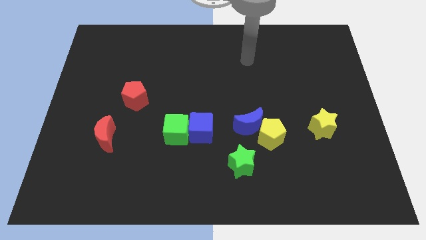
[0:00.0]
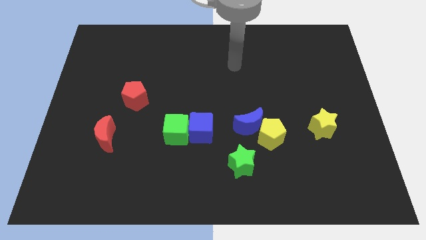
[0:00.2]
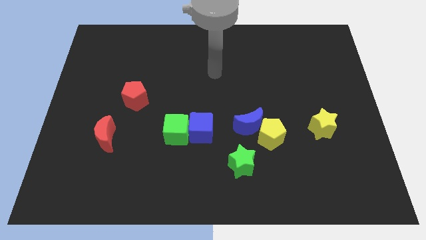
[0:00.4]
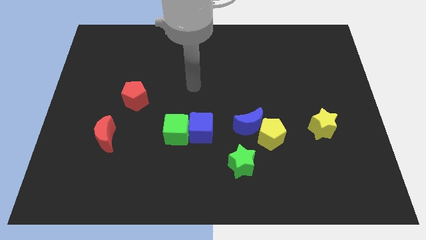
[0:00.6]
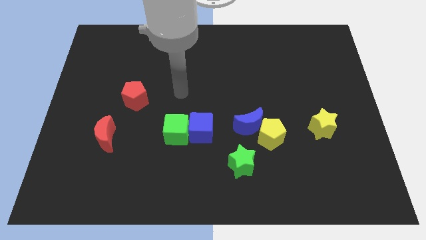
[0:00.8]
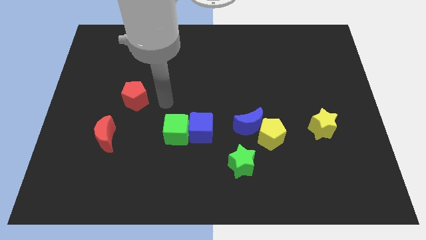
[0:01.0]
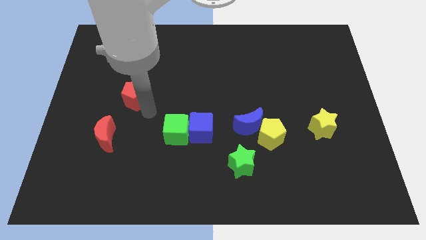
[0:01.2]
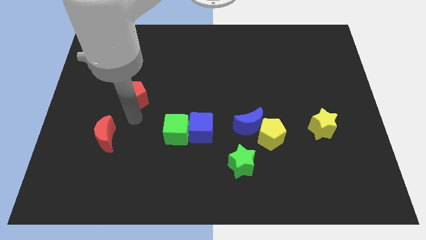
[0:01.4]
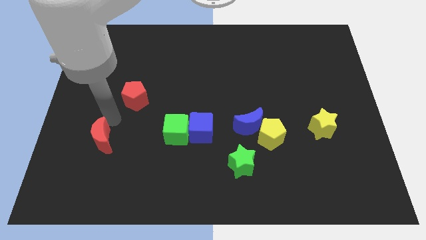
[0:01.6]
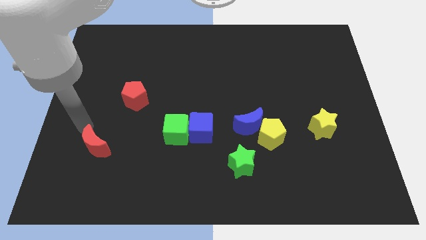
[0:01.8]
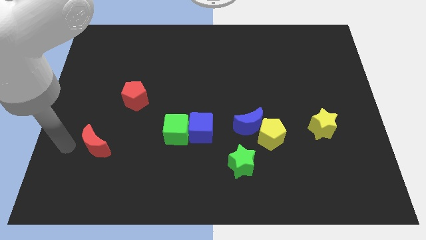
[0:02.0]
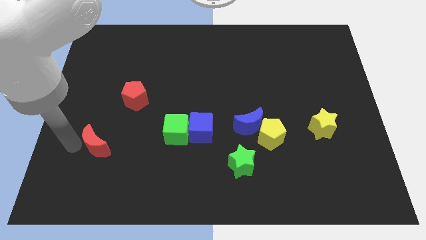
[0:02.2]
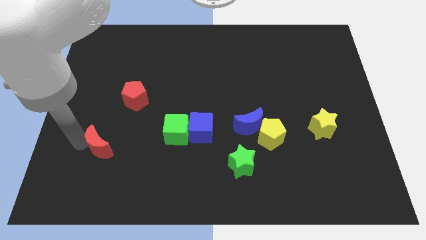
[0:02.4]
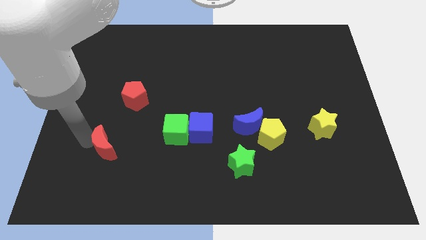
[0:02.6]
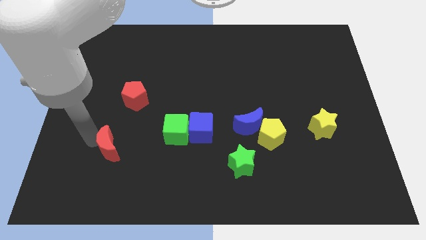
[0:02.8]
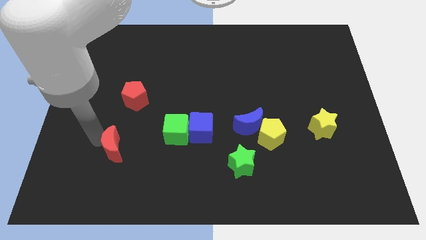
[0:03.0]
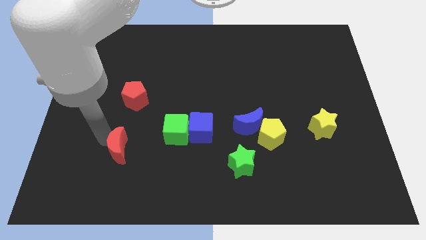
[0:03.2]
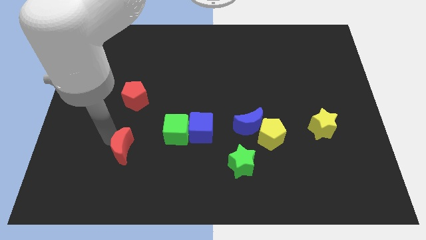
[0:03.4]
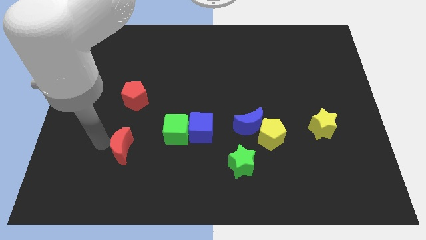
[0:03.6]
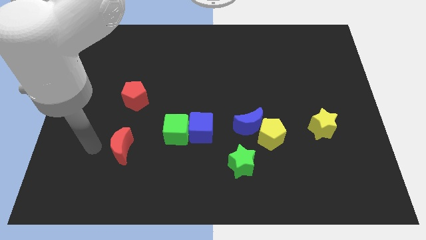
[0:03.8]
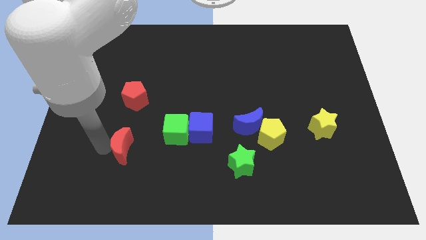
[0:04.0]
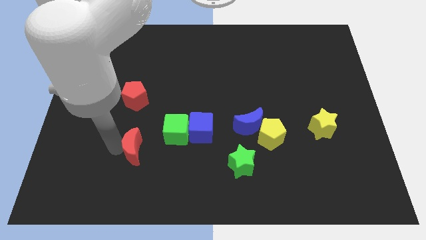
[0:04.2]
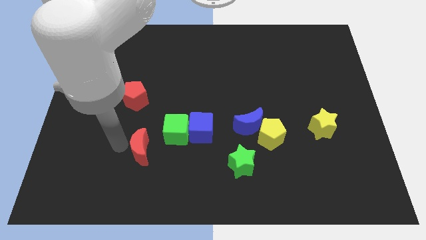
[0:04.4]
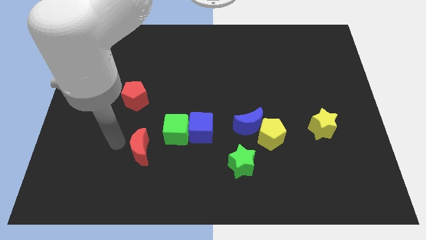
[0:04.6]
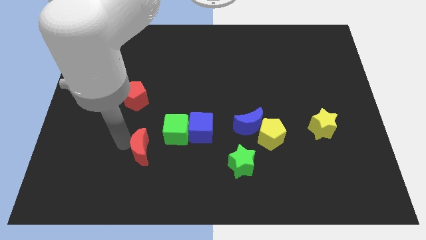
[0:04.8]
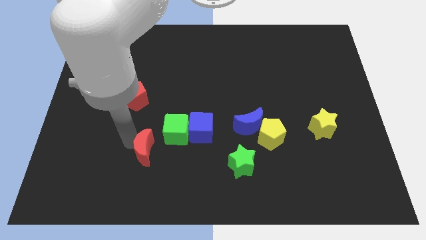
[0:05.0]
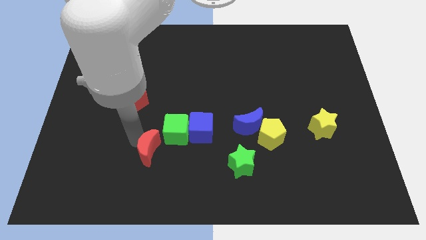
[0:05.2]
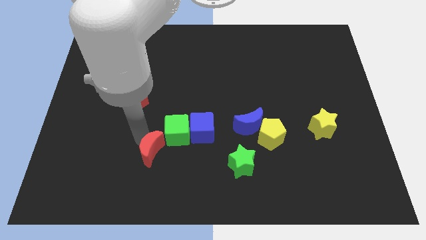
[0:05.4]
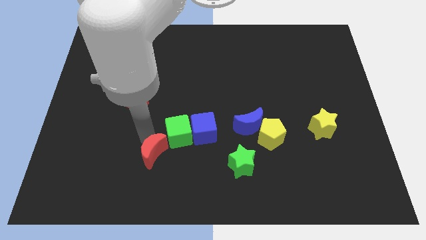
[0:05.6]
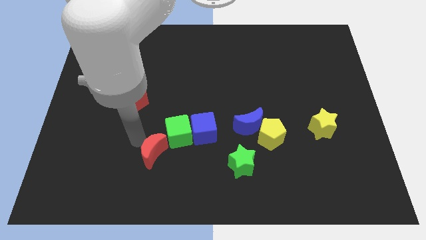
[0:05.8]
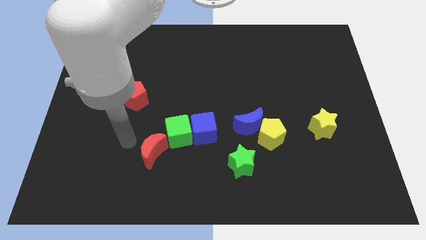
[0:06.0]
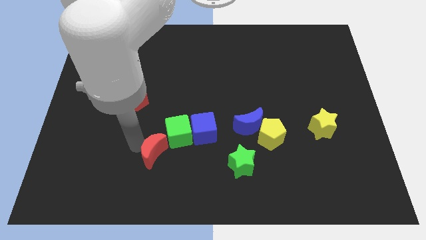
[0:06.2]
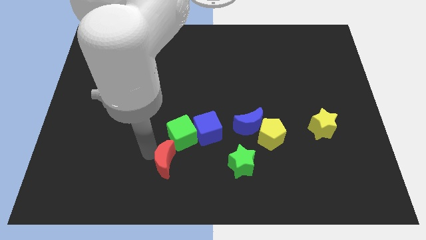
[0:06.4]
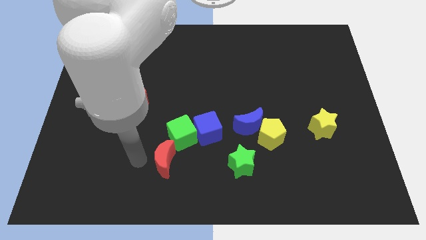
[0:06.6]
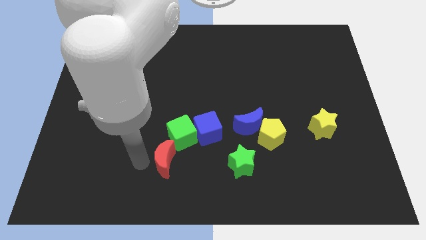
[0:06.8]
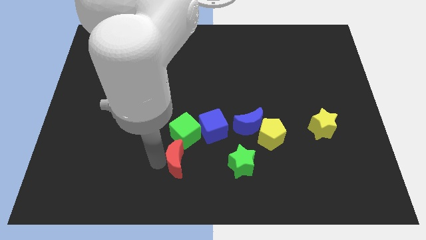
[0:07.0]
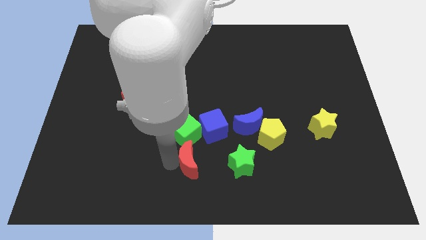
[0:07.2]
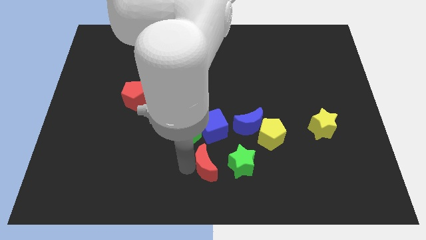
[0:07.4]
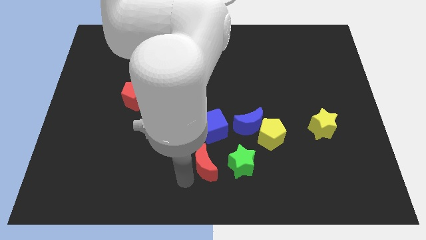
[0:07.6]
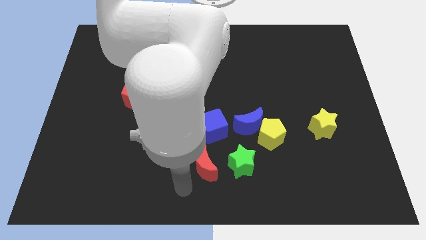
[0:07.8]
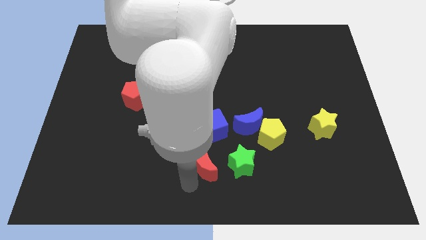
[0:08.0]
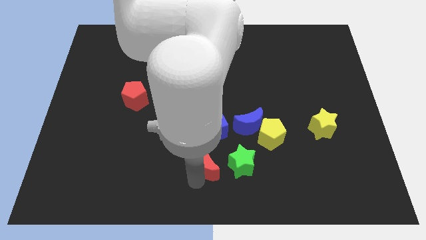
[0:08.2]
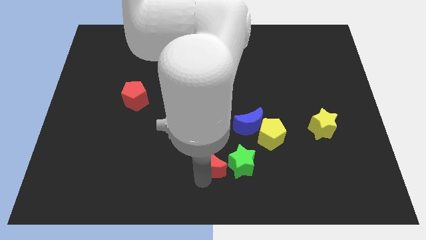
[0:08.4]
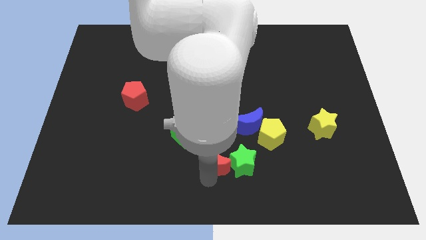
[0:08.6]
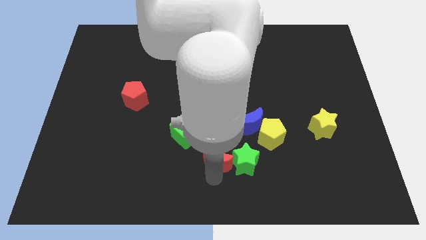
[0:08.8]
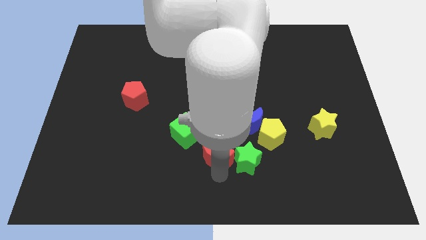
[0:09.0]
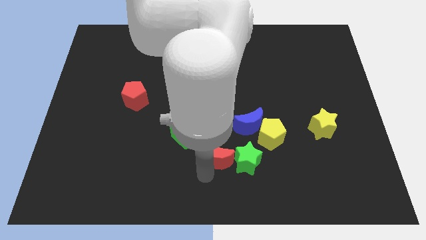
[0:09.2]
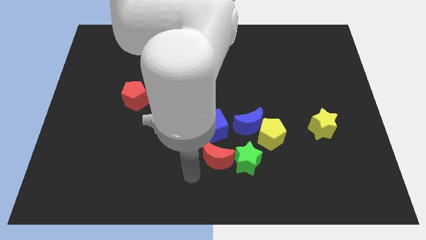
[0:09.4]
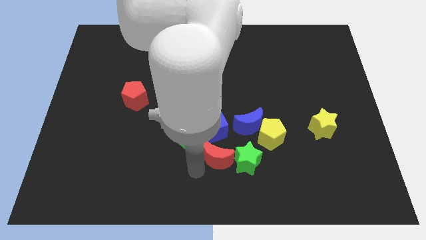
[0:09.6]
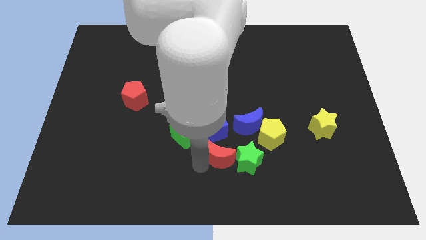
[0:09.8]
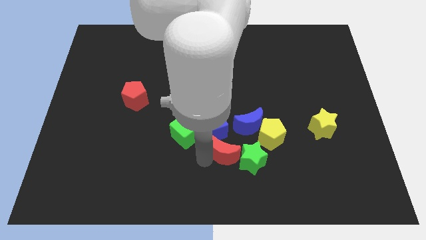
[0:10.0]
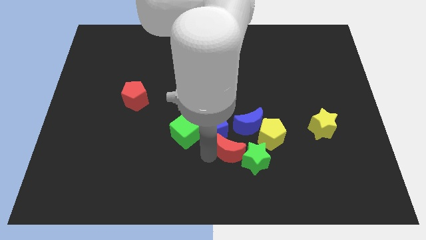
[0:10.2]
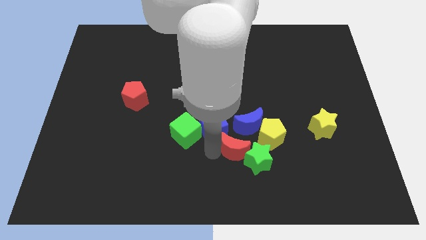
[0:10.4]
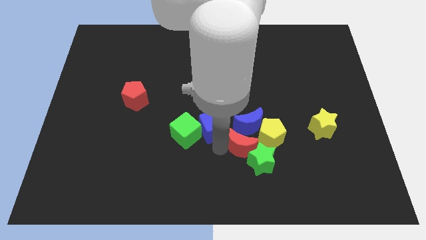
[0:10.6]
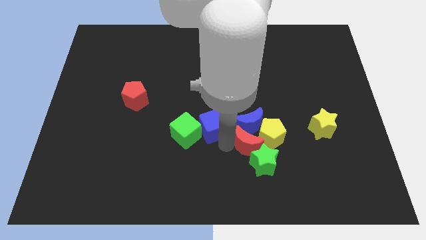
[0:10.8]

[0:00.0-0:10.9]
move the red moon to the yellow pentagon
